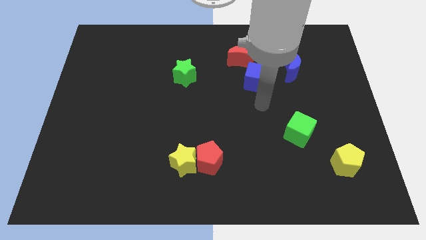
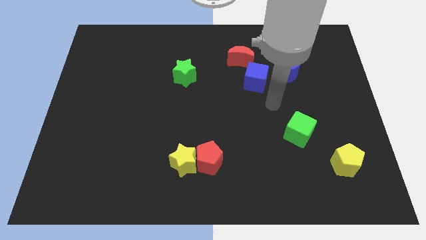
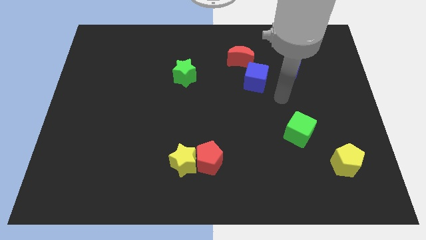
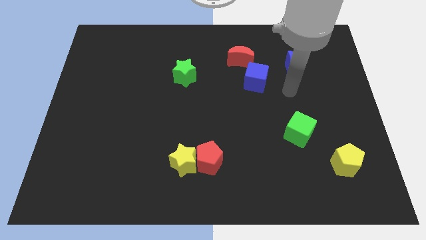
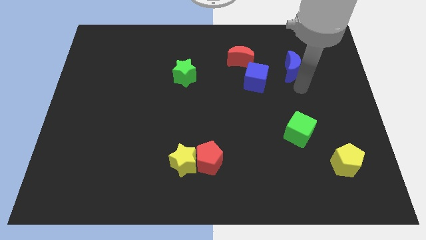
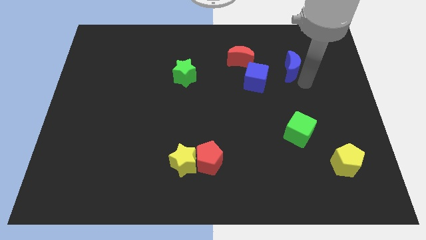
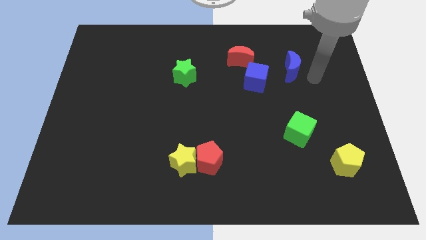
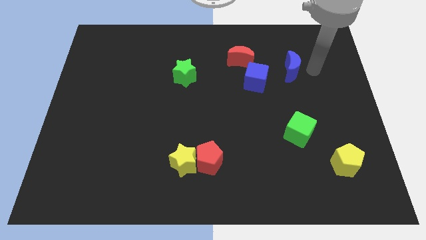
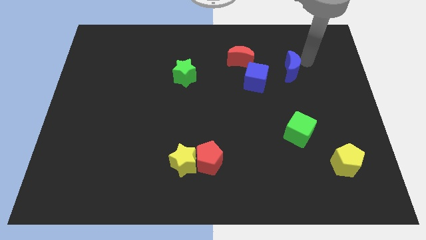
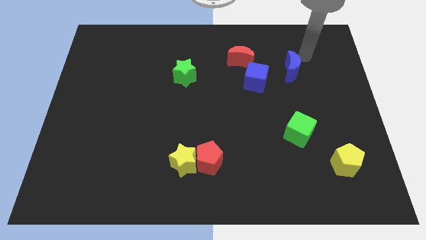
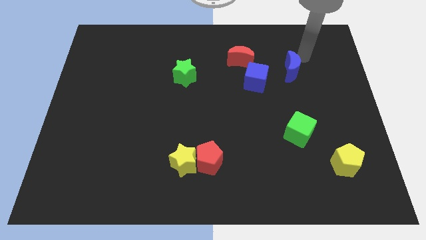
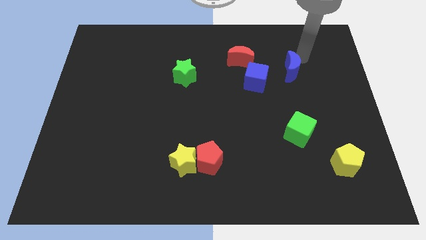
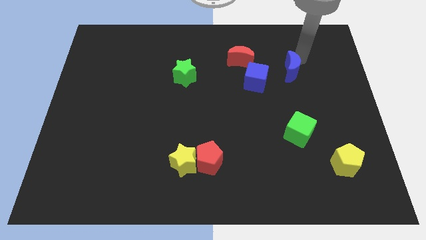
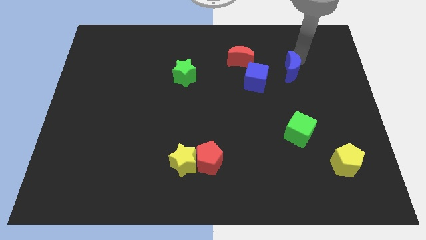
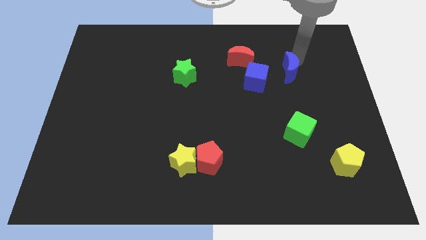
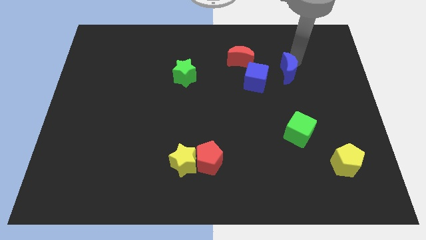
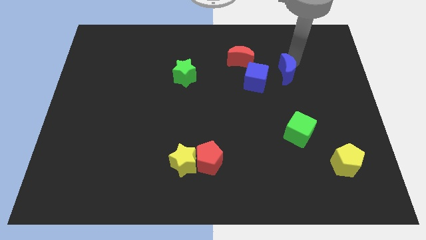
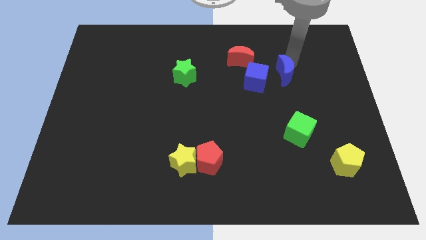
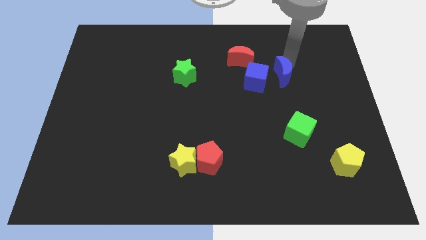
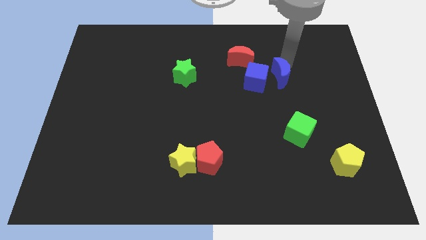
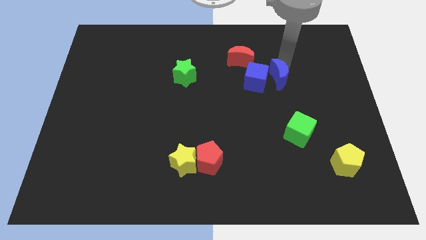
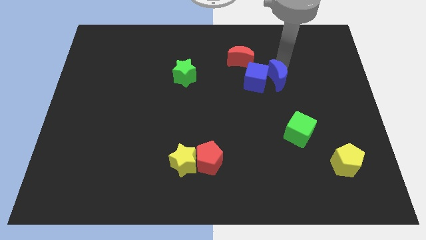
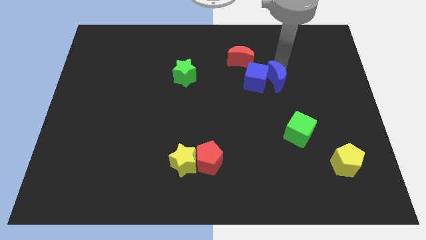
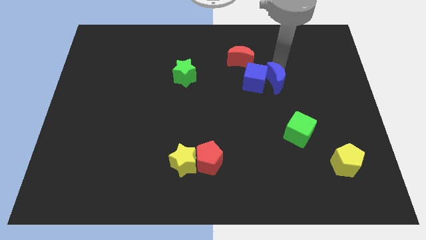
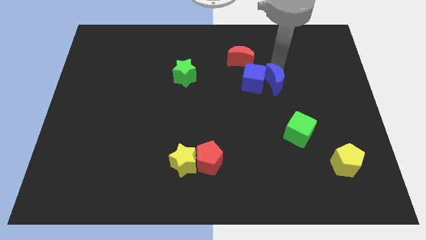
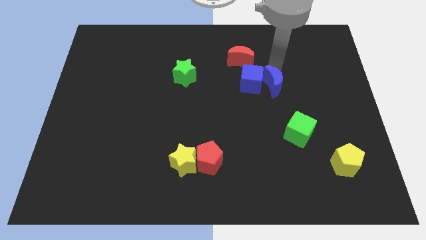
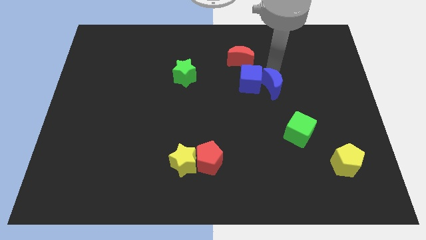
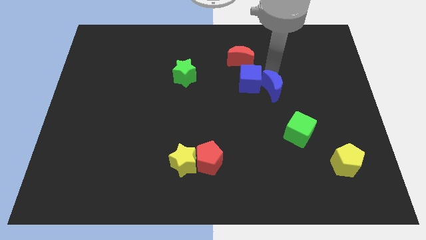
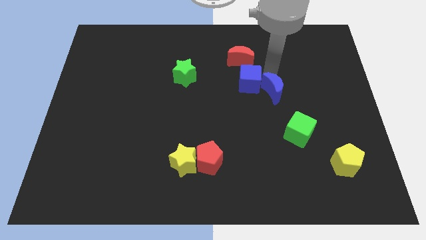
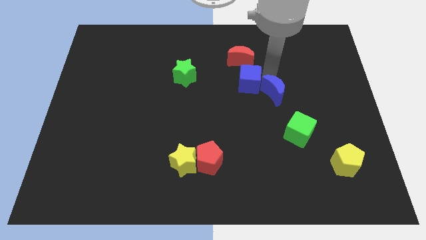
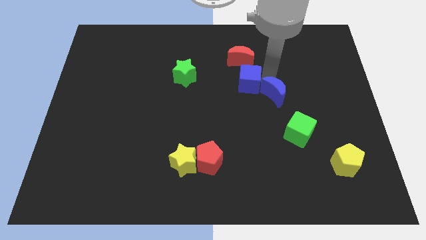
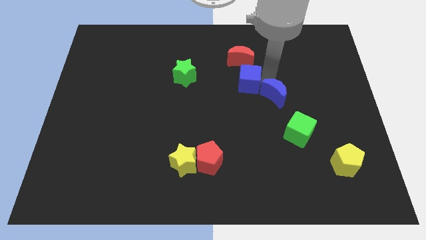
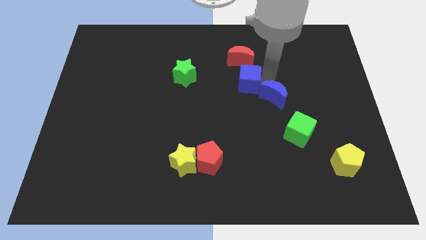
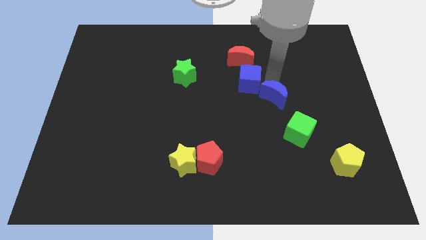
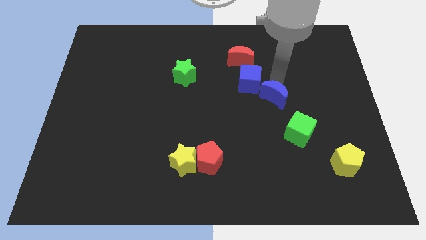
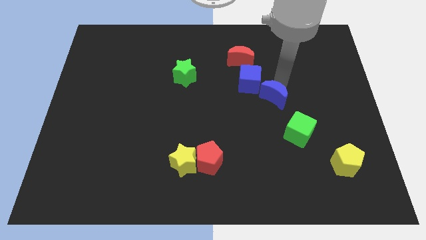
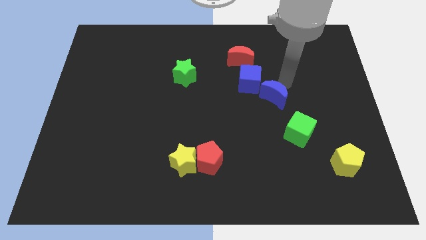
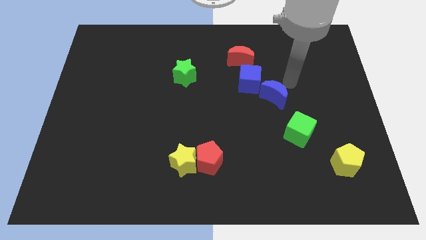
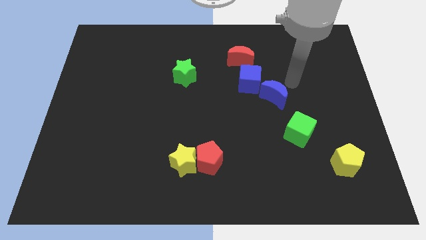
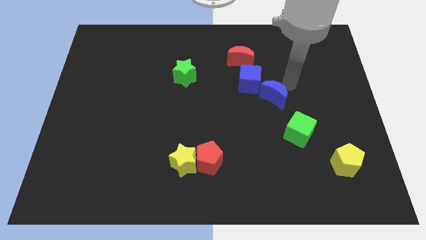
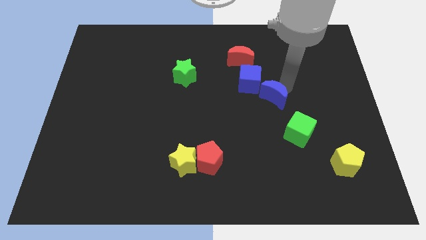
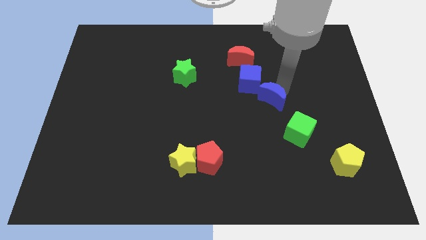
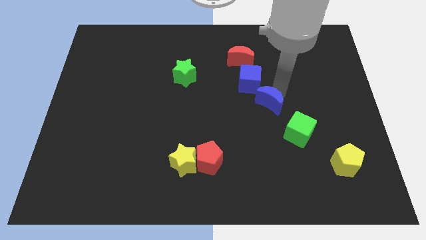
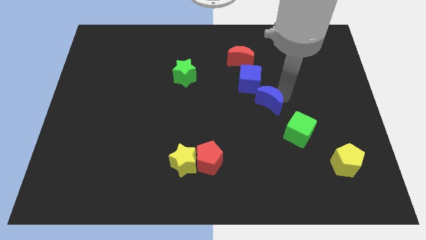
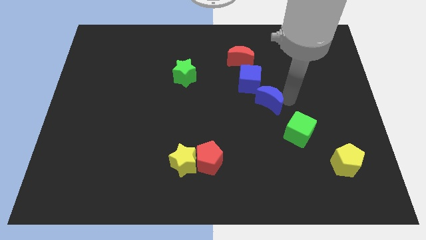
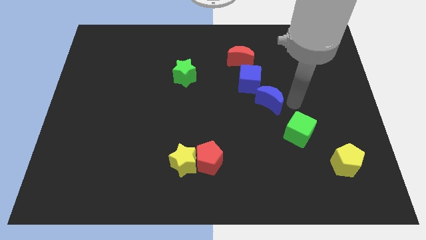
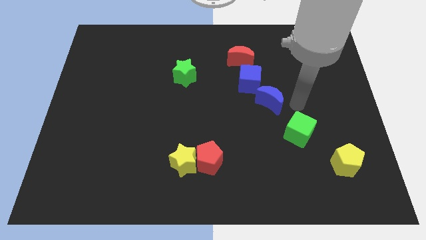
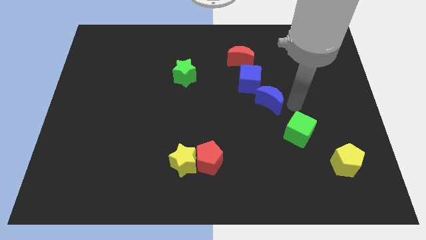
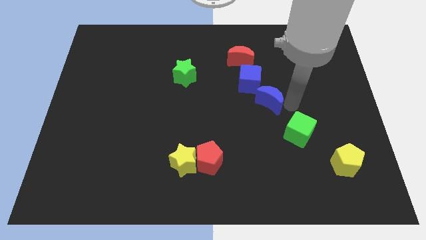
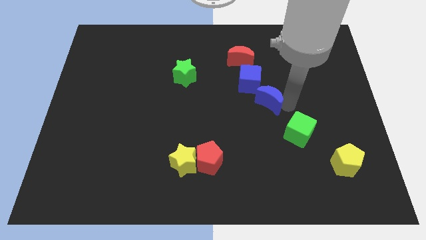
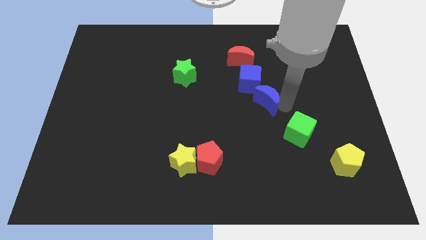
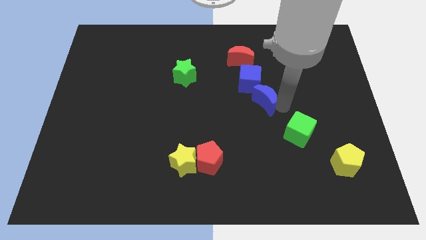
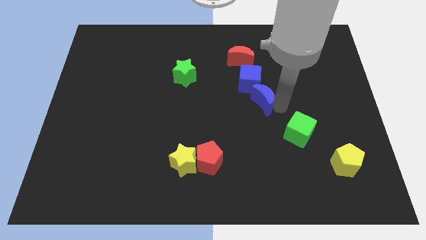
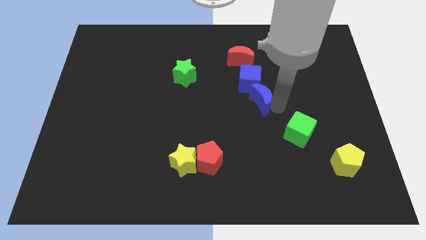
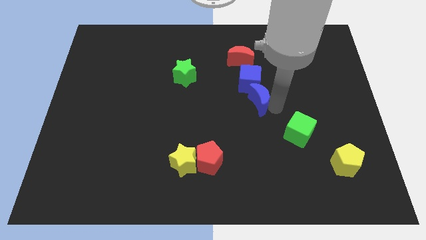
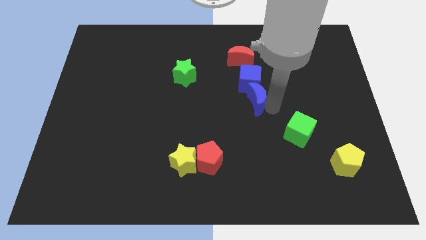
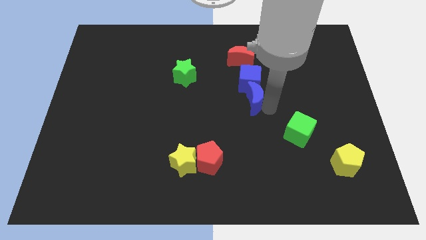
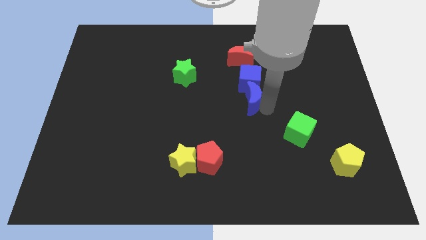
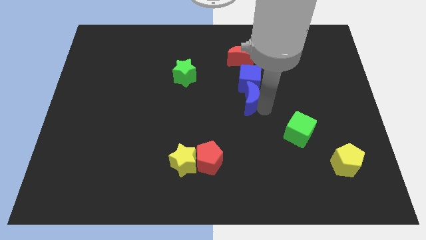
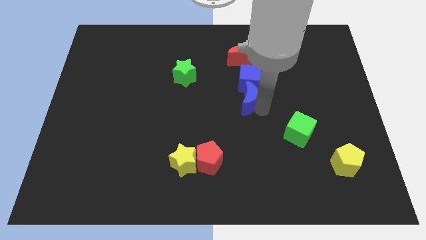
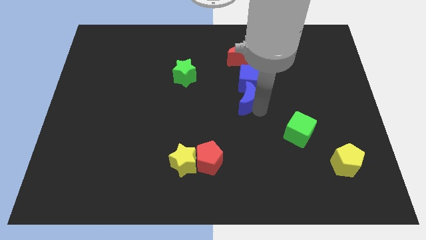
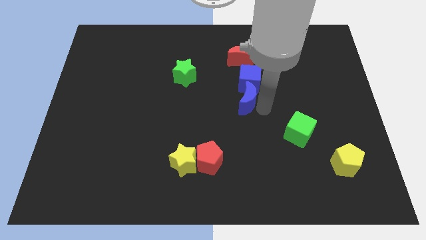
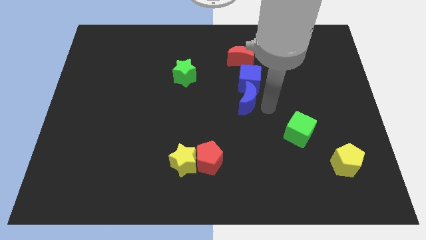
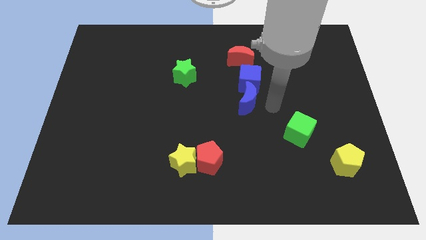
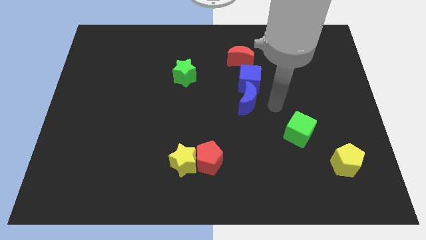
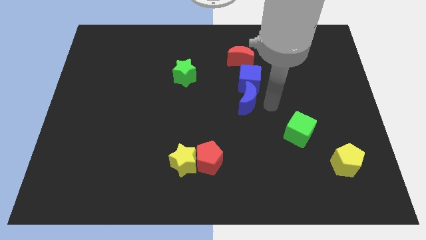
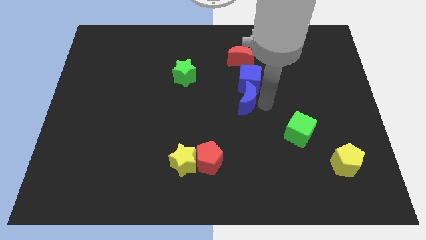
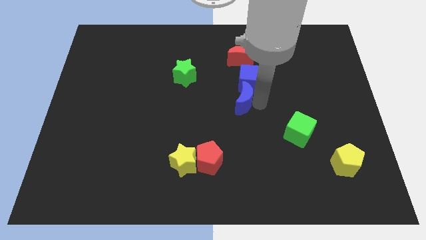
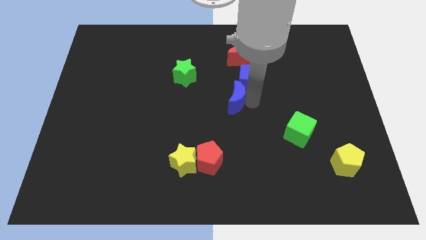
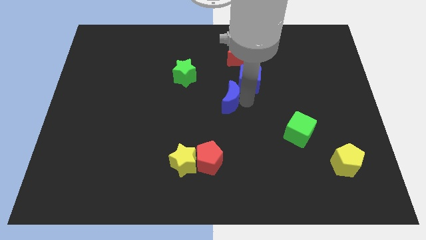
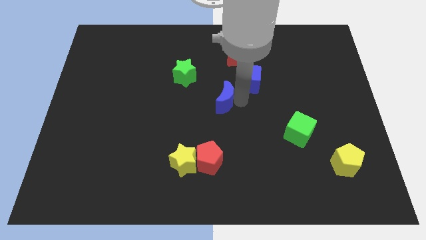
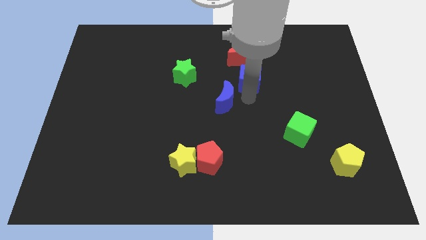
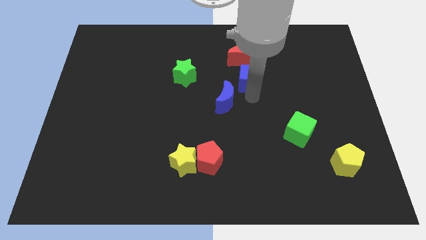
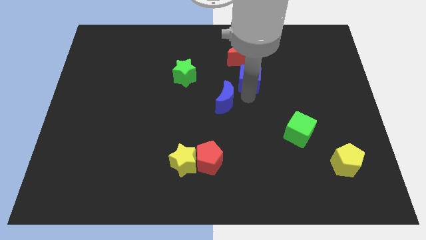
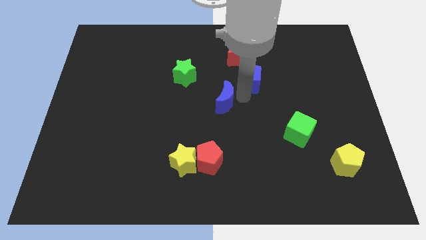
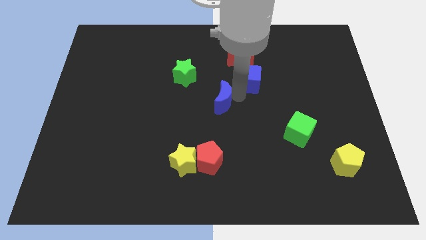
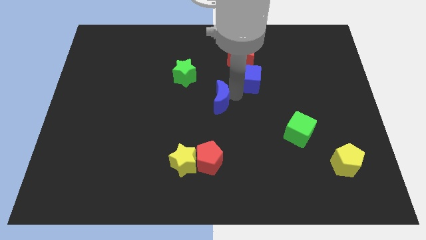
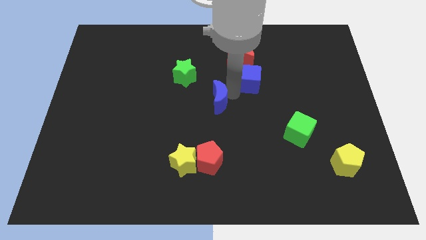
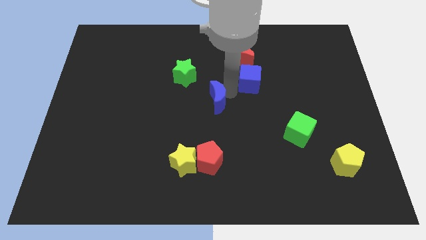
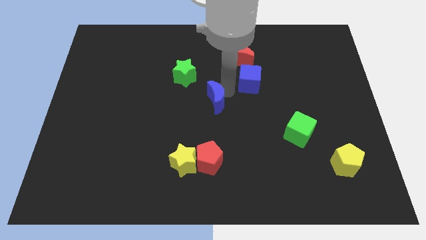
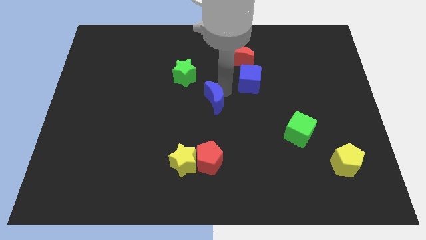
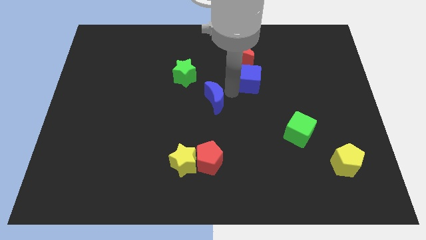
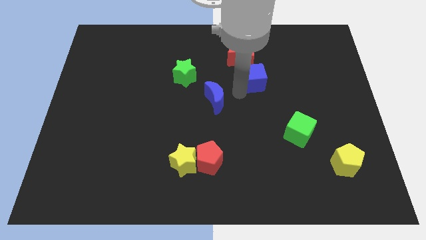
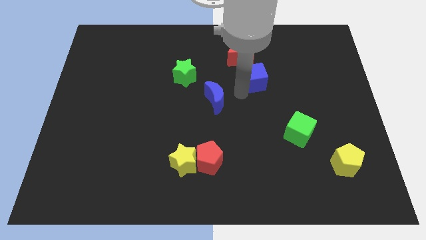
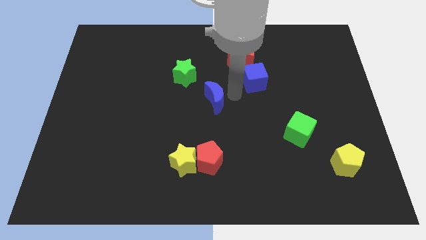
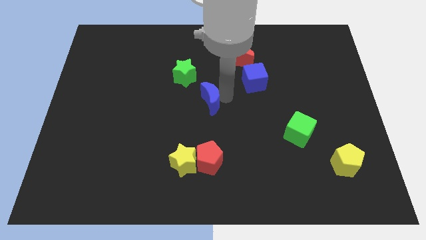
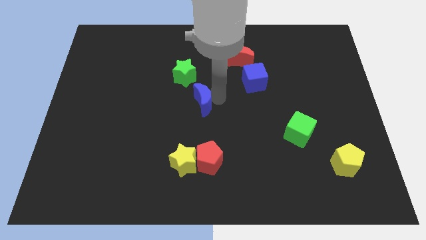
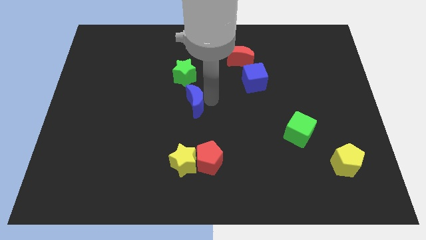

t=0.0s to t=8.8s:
put the blue moon to the bottom of the green star
